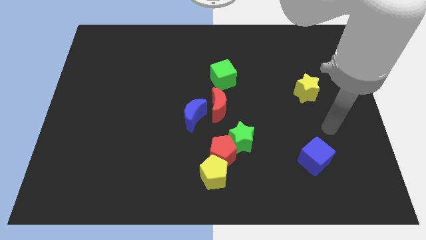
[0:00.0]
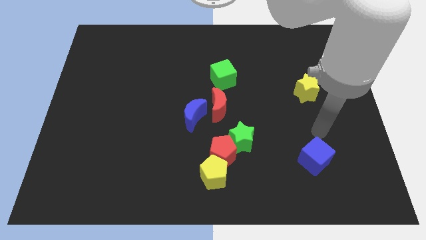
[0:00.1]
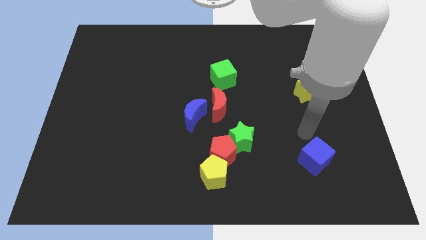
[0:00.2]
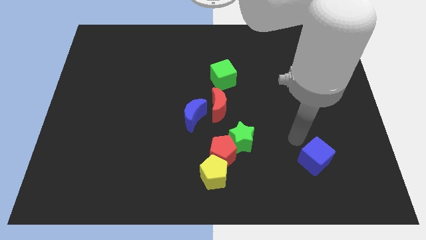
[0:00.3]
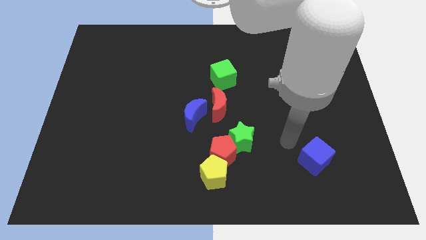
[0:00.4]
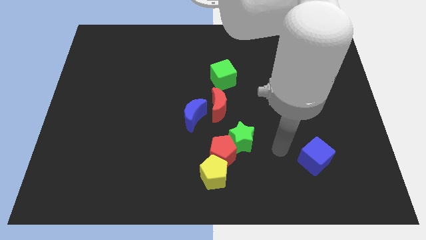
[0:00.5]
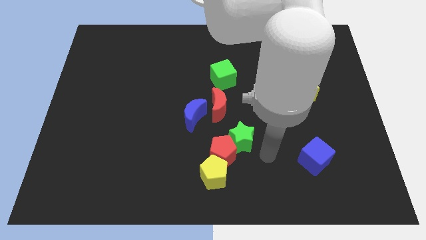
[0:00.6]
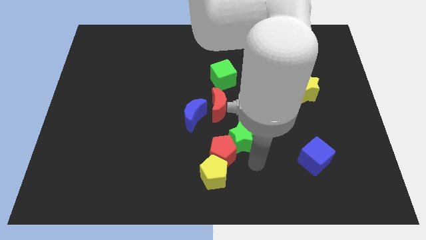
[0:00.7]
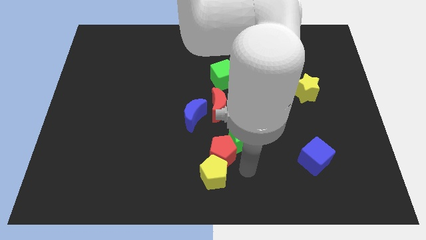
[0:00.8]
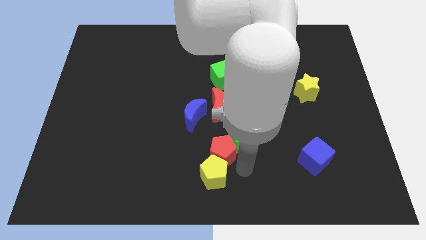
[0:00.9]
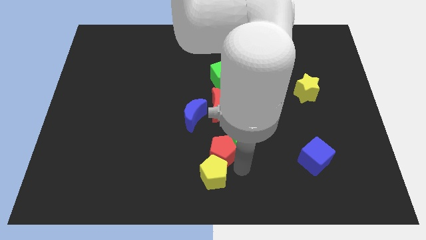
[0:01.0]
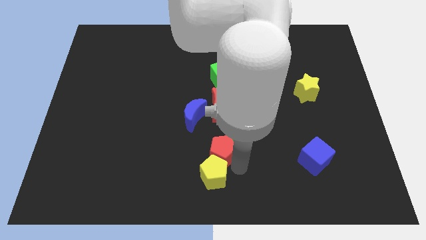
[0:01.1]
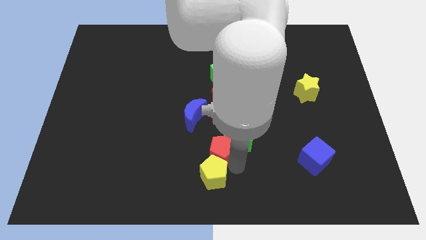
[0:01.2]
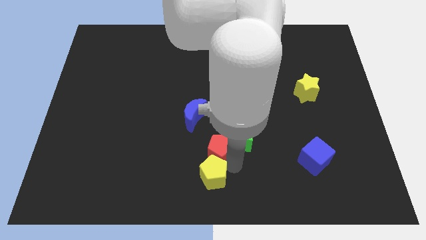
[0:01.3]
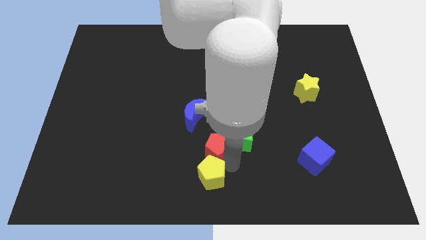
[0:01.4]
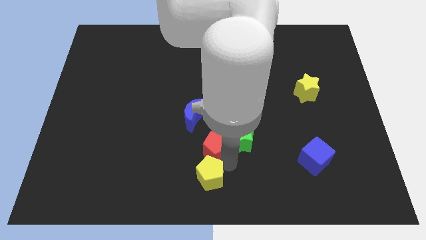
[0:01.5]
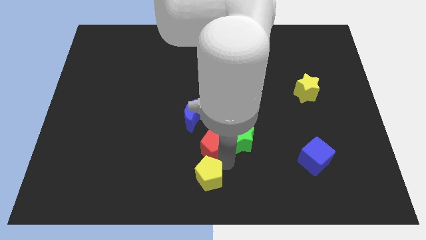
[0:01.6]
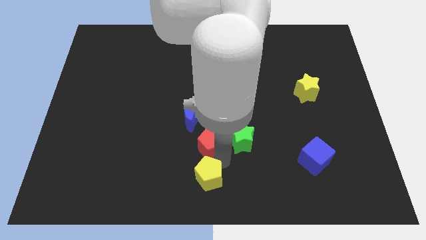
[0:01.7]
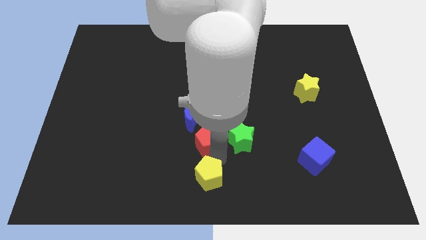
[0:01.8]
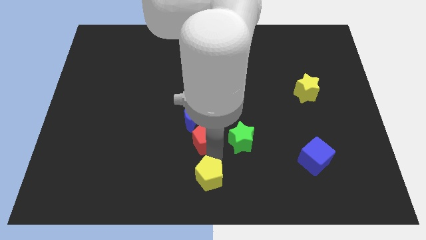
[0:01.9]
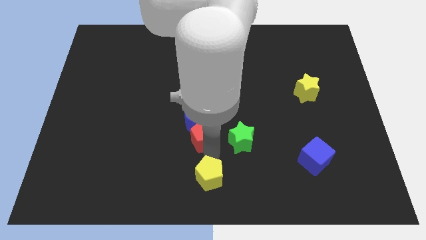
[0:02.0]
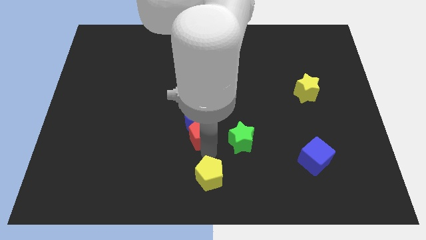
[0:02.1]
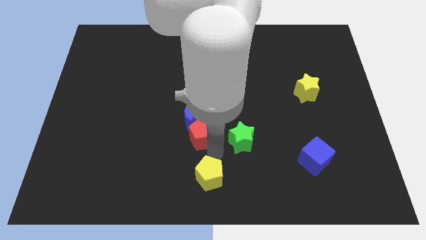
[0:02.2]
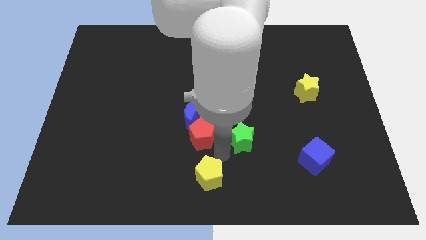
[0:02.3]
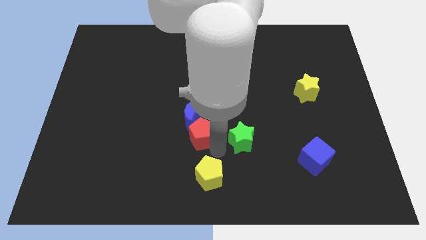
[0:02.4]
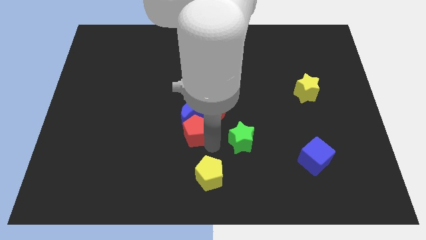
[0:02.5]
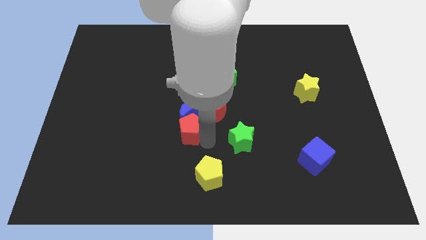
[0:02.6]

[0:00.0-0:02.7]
pull the red pentagon apart from the green star and yellow pentagon

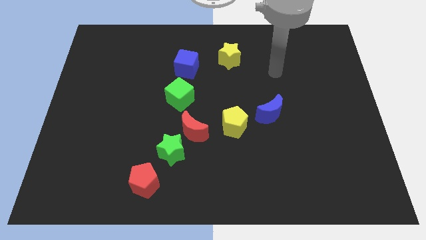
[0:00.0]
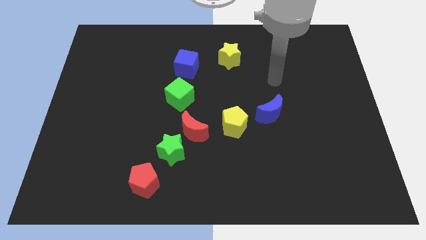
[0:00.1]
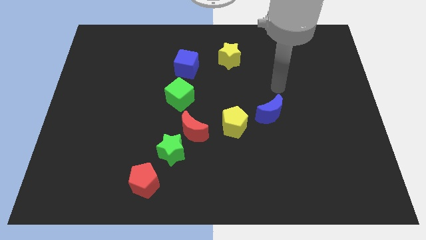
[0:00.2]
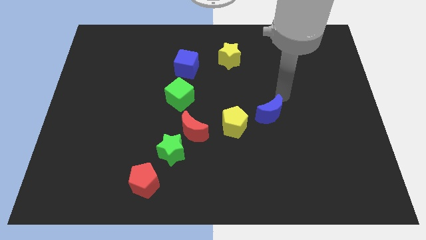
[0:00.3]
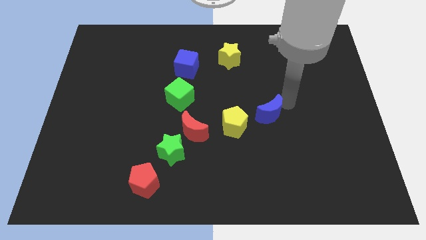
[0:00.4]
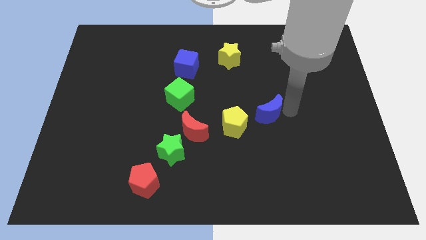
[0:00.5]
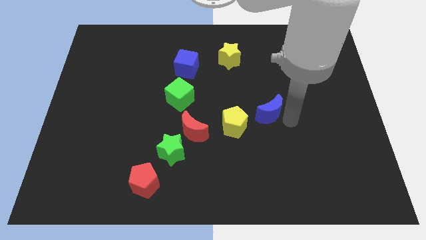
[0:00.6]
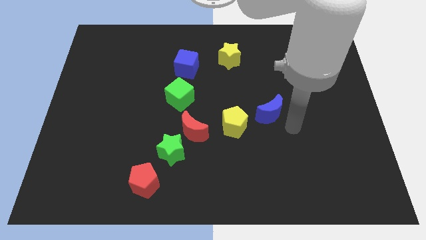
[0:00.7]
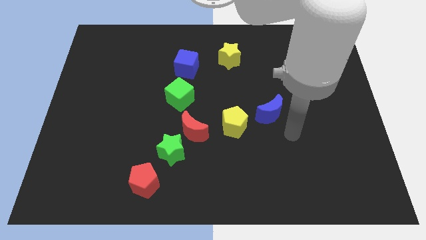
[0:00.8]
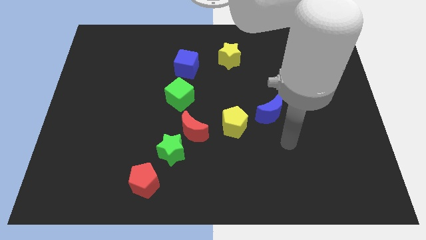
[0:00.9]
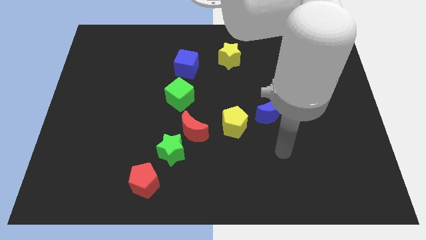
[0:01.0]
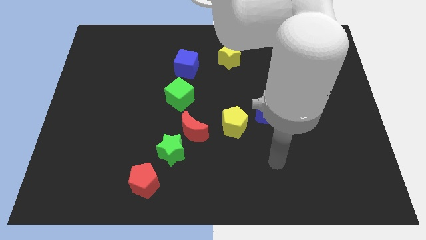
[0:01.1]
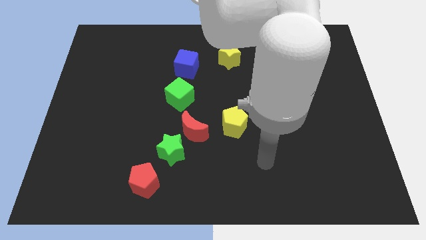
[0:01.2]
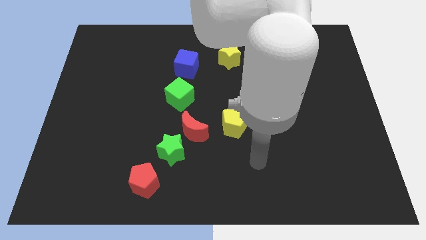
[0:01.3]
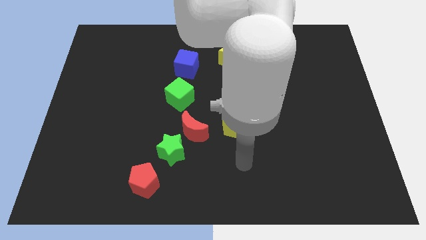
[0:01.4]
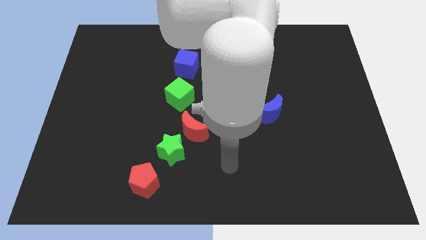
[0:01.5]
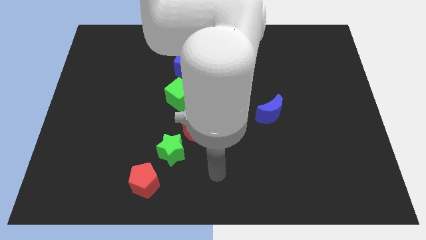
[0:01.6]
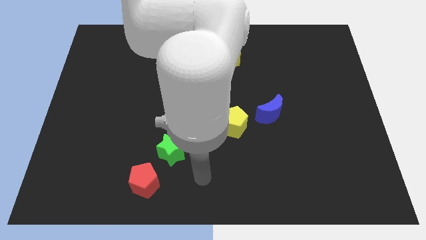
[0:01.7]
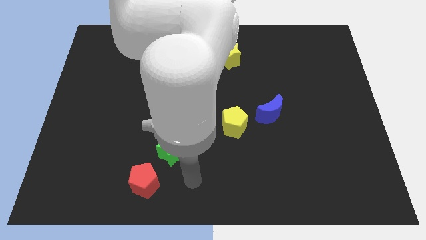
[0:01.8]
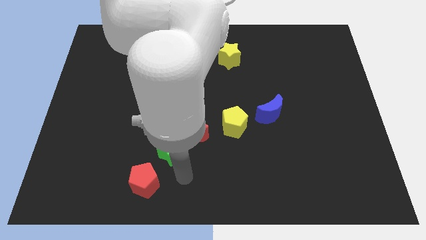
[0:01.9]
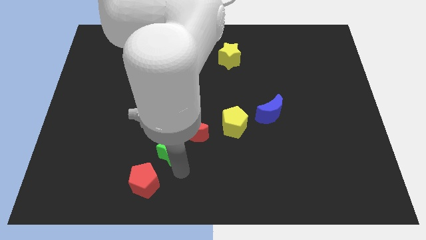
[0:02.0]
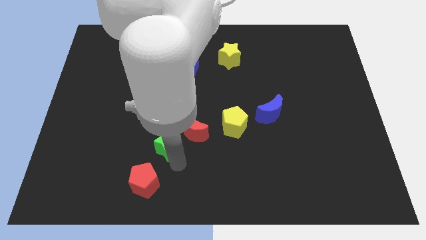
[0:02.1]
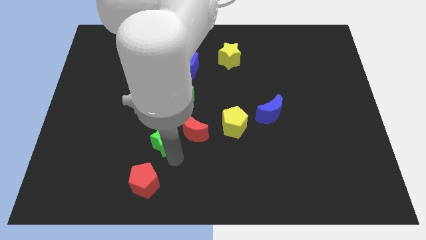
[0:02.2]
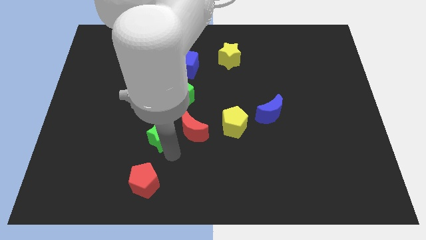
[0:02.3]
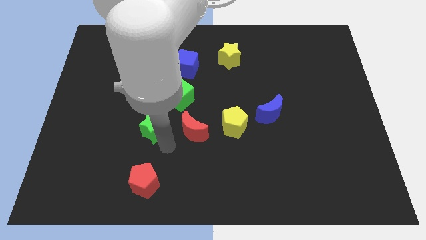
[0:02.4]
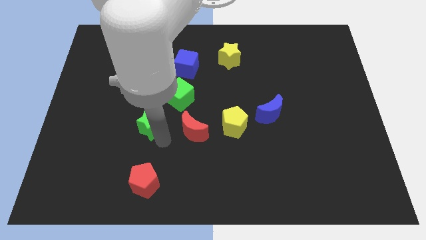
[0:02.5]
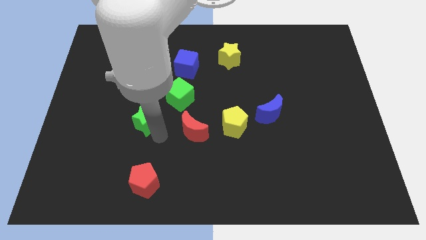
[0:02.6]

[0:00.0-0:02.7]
pull the green star apart from the red moon and red pentagon

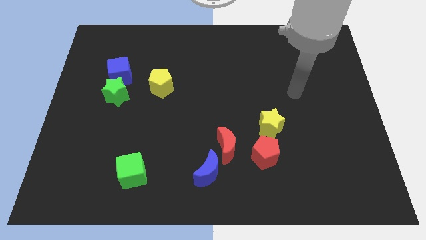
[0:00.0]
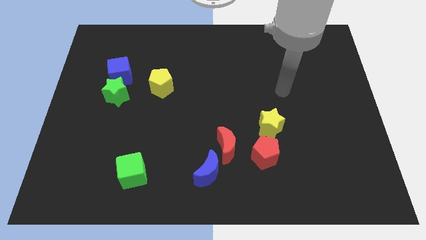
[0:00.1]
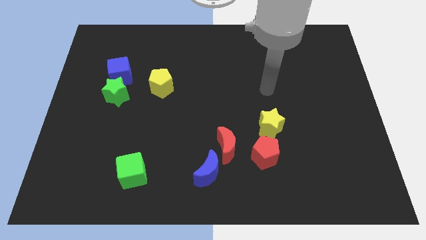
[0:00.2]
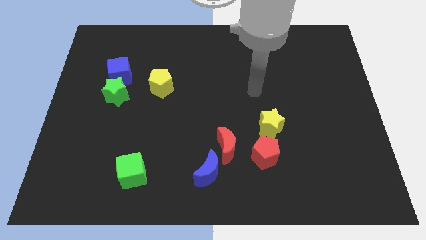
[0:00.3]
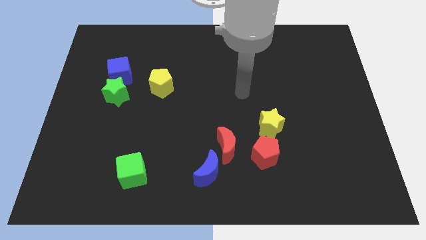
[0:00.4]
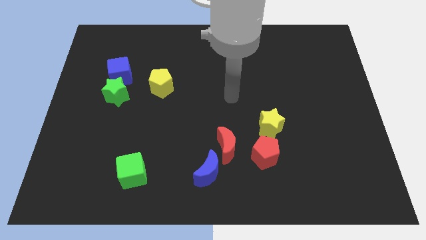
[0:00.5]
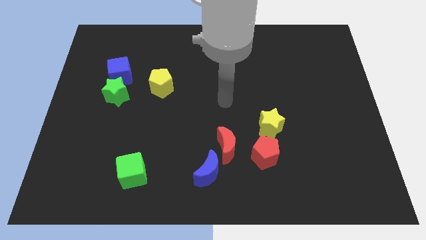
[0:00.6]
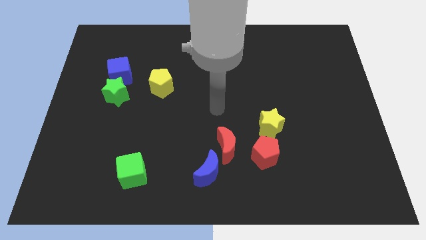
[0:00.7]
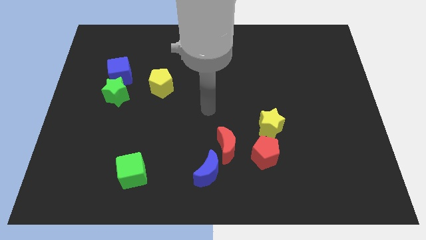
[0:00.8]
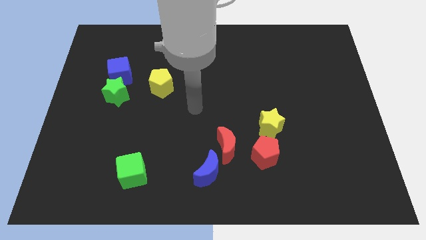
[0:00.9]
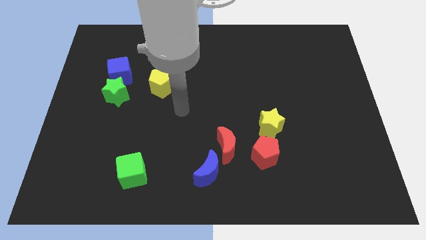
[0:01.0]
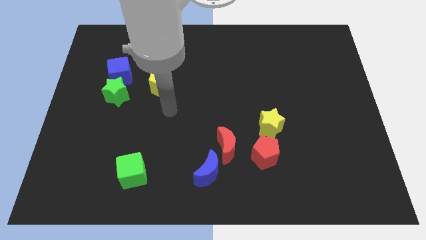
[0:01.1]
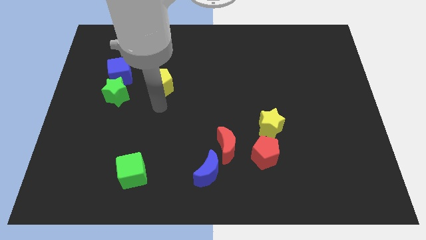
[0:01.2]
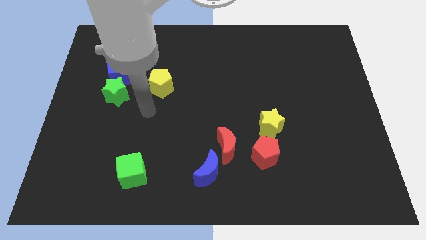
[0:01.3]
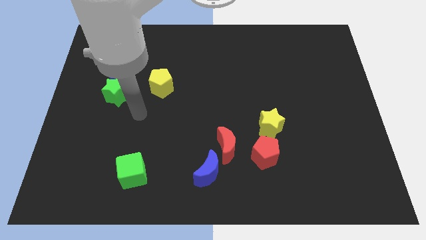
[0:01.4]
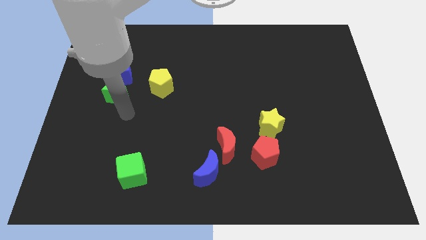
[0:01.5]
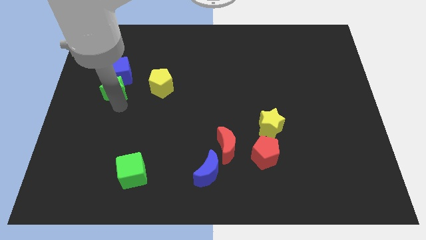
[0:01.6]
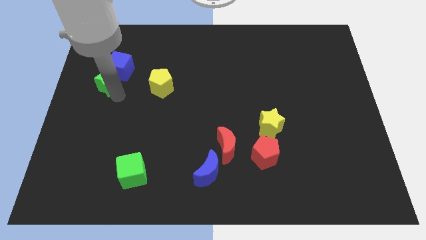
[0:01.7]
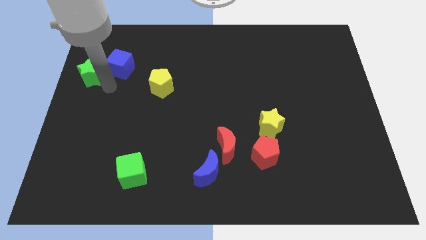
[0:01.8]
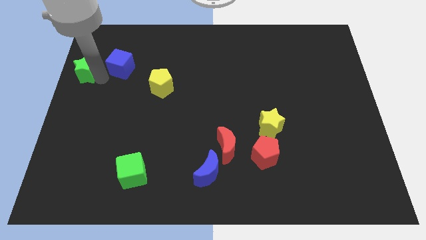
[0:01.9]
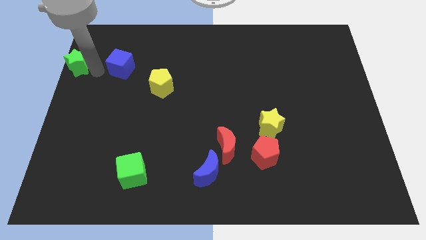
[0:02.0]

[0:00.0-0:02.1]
pull the blue cube apart from the green star

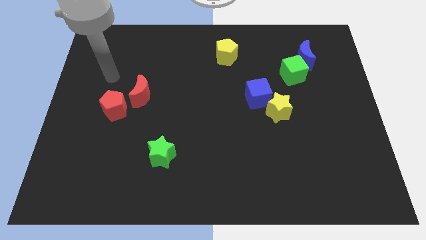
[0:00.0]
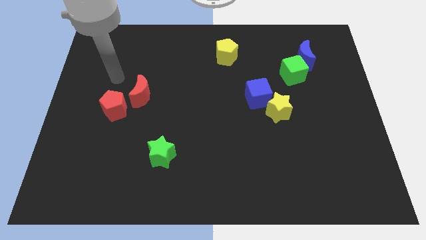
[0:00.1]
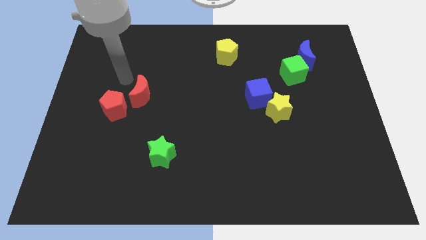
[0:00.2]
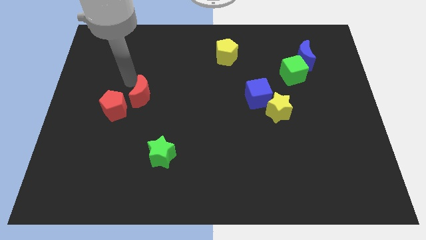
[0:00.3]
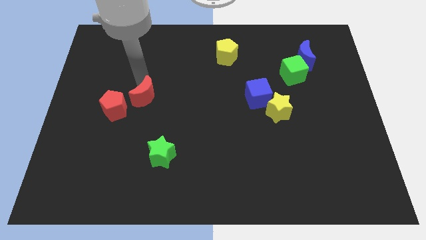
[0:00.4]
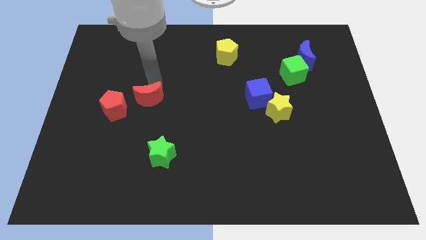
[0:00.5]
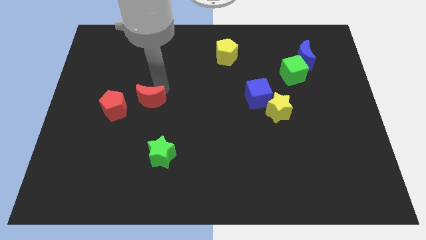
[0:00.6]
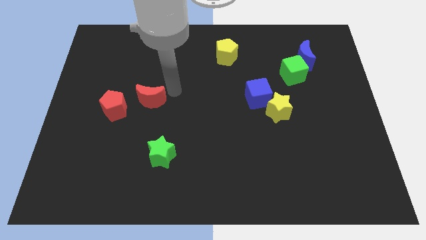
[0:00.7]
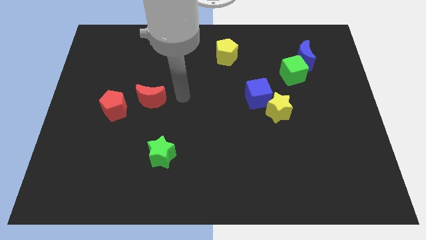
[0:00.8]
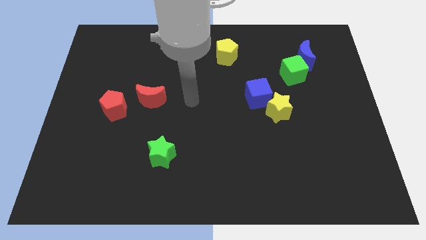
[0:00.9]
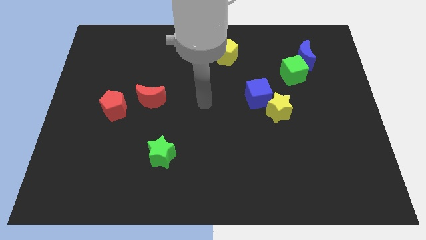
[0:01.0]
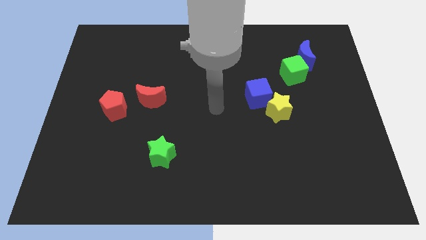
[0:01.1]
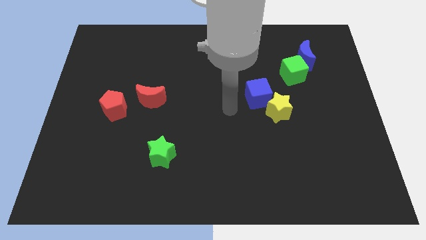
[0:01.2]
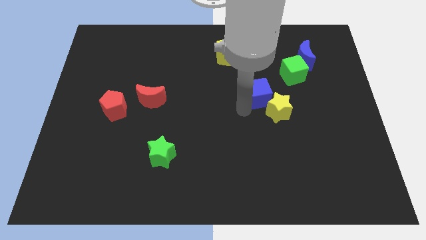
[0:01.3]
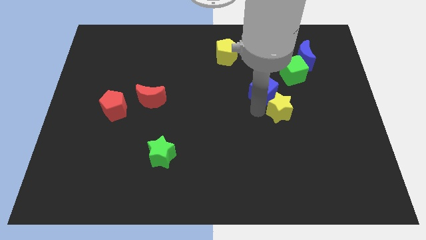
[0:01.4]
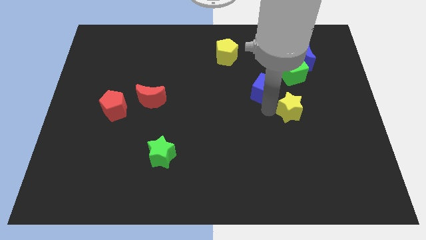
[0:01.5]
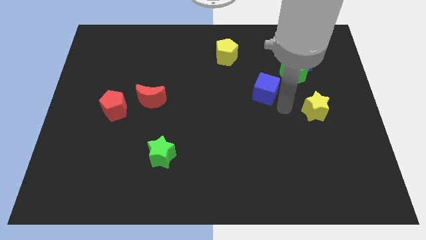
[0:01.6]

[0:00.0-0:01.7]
separate the blue cube from the yellow star

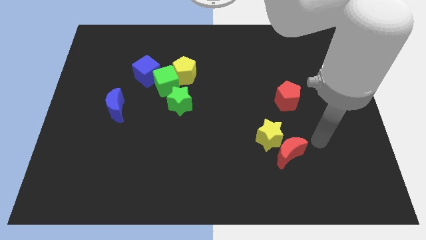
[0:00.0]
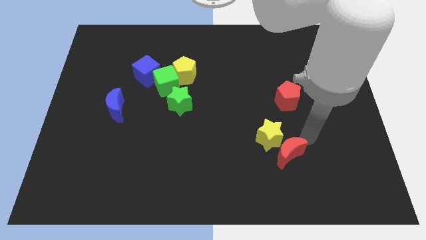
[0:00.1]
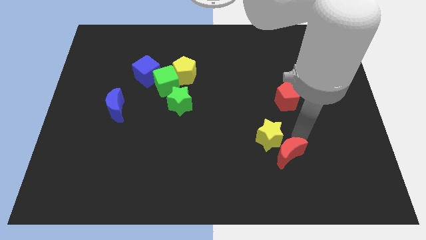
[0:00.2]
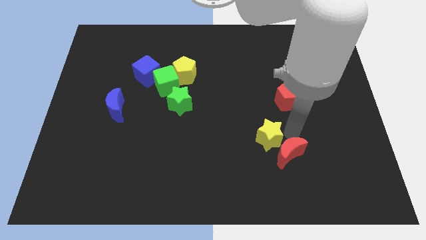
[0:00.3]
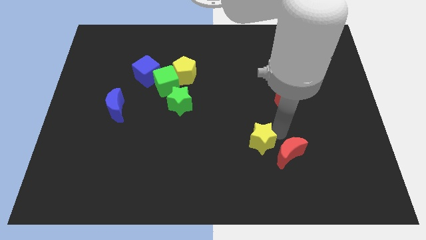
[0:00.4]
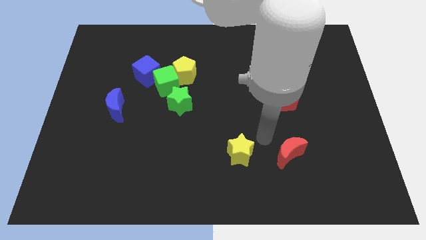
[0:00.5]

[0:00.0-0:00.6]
separate the red moon from the yellow star
